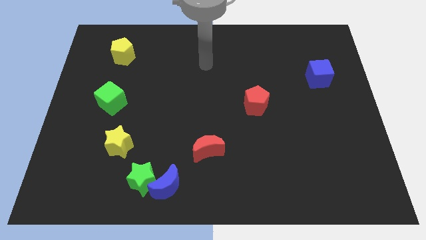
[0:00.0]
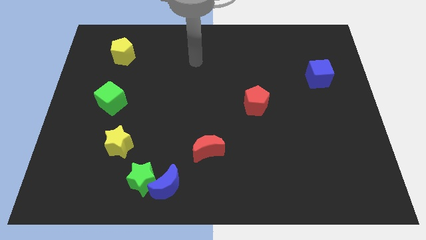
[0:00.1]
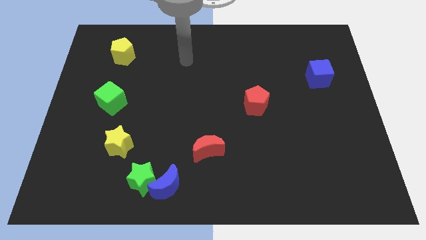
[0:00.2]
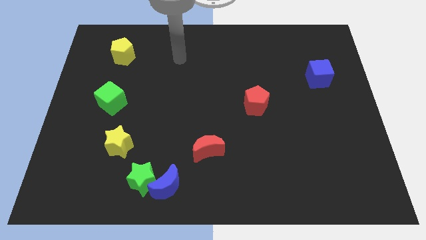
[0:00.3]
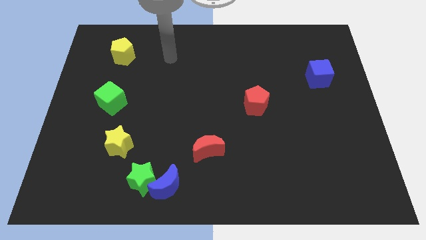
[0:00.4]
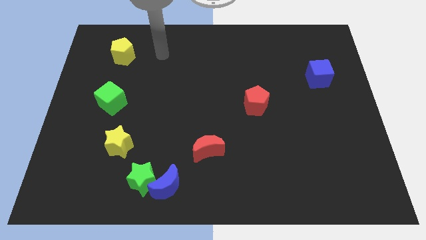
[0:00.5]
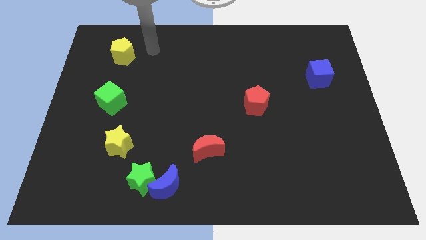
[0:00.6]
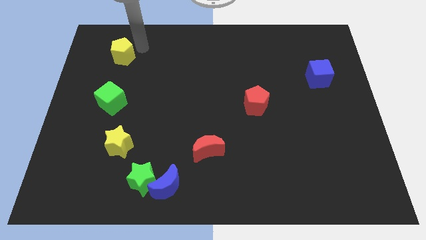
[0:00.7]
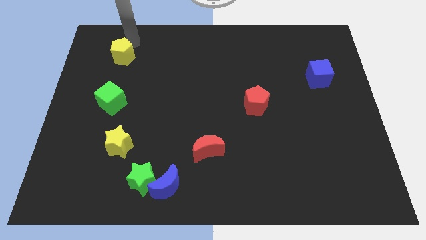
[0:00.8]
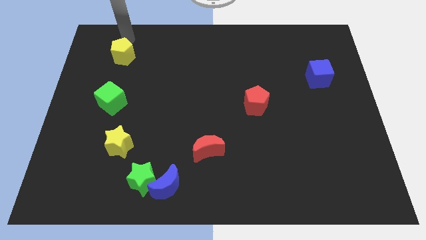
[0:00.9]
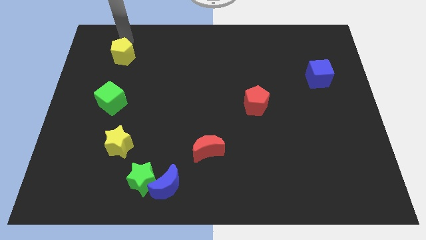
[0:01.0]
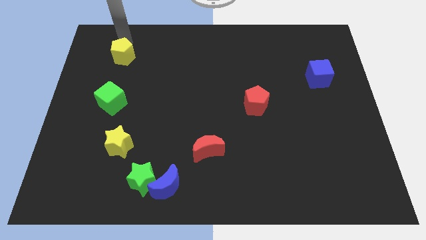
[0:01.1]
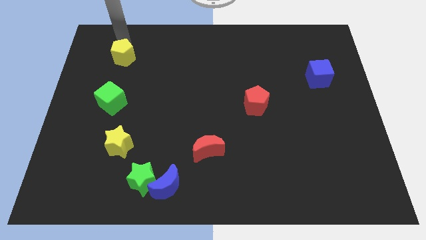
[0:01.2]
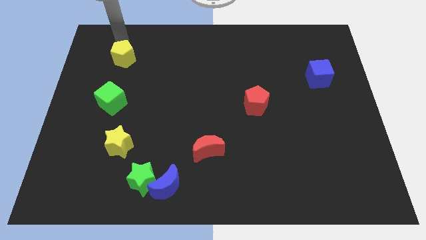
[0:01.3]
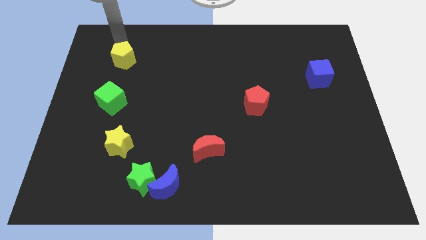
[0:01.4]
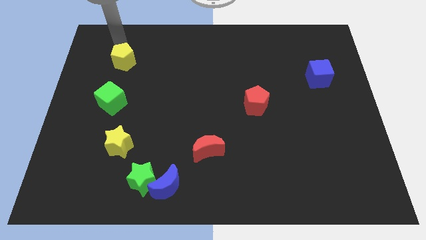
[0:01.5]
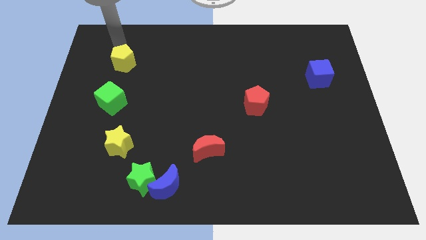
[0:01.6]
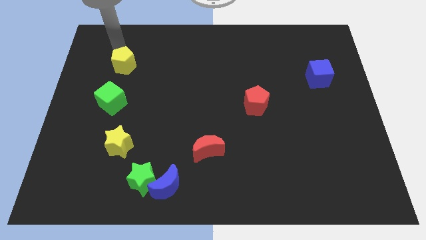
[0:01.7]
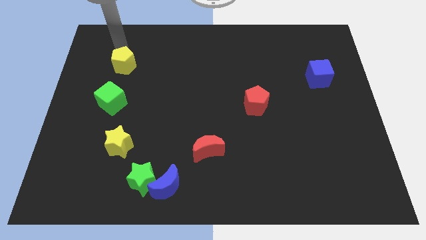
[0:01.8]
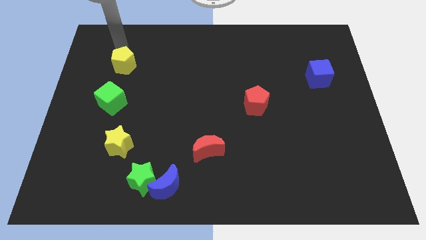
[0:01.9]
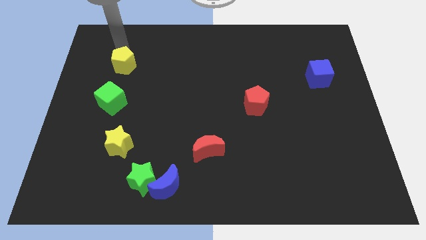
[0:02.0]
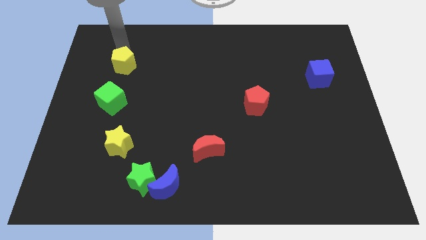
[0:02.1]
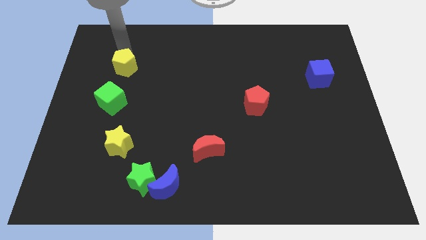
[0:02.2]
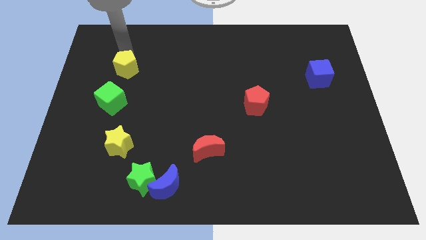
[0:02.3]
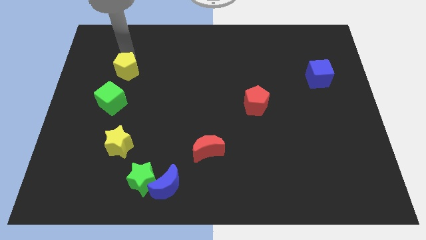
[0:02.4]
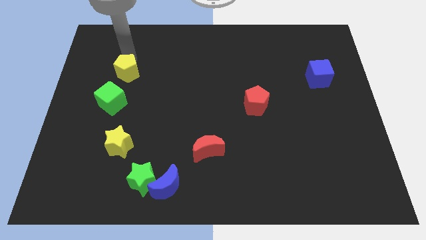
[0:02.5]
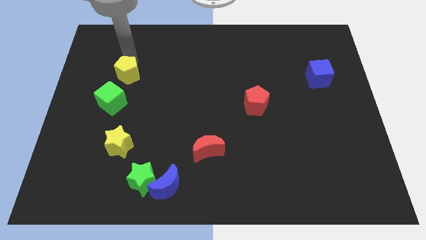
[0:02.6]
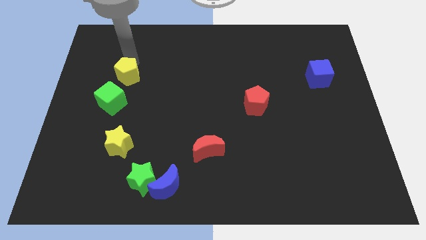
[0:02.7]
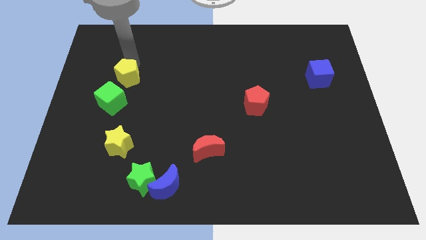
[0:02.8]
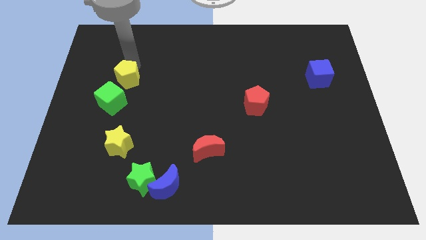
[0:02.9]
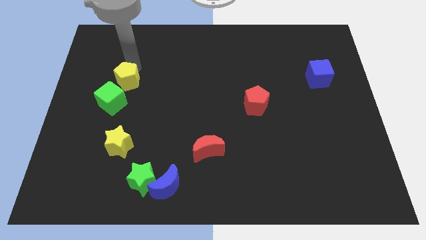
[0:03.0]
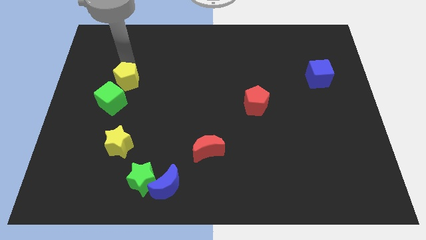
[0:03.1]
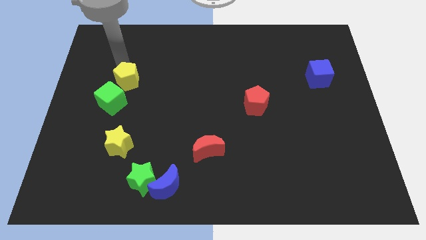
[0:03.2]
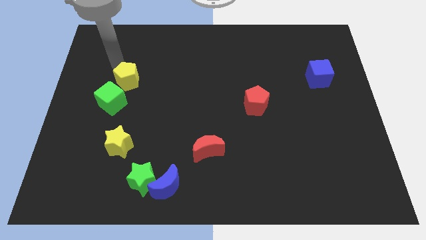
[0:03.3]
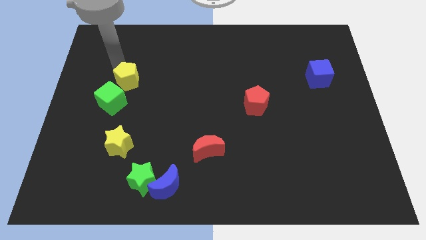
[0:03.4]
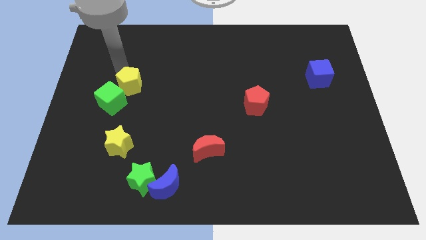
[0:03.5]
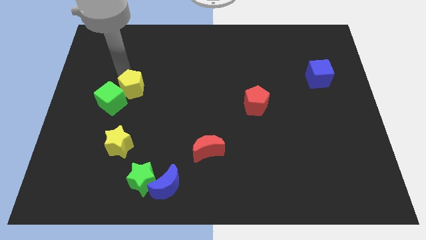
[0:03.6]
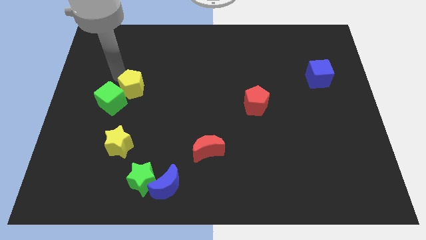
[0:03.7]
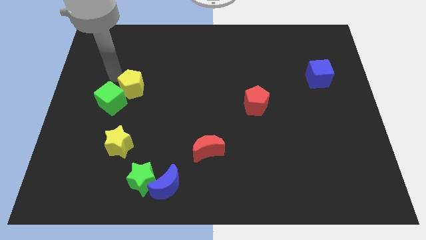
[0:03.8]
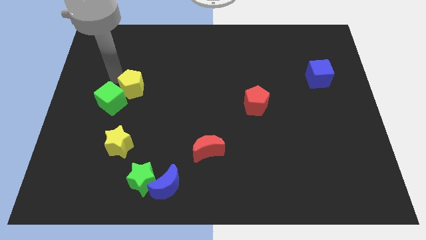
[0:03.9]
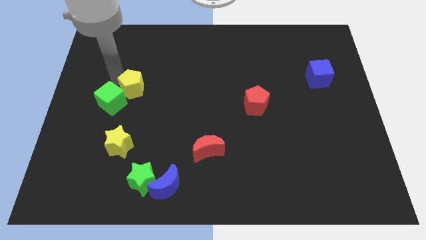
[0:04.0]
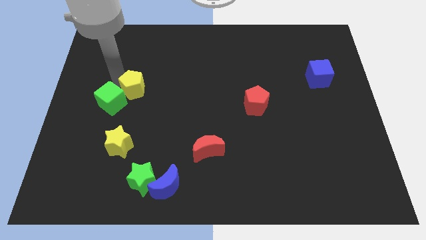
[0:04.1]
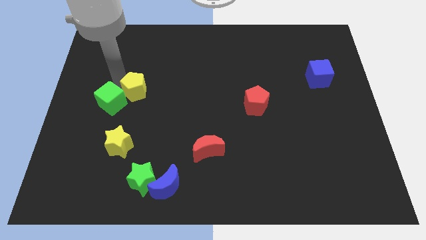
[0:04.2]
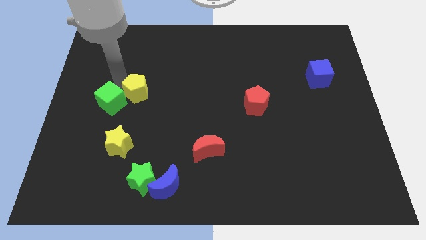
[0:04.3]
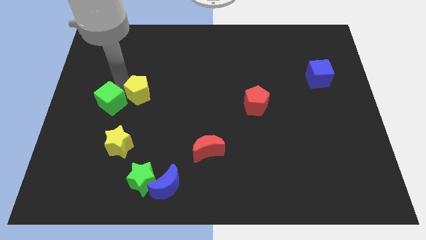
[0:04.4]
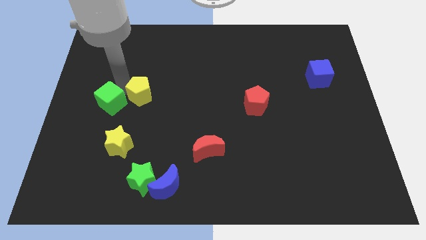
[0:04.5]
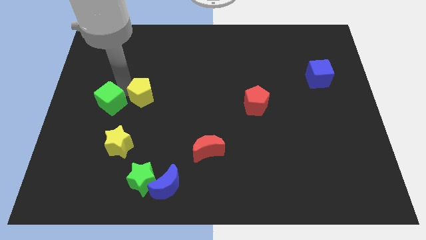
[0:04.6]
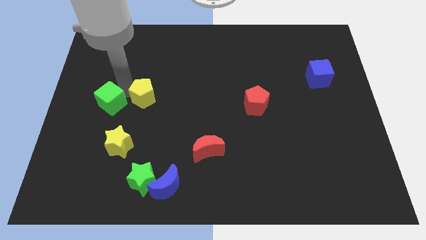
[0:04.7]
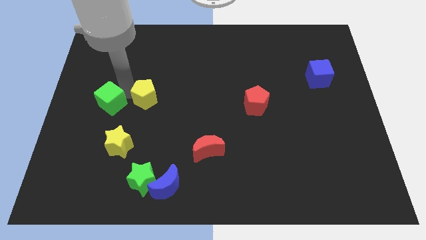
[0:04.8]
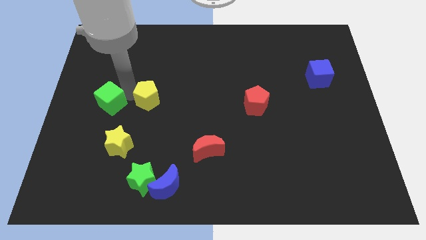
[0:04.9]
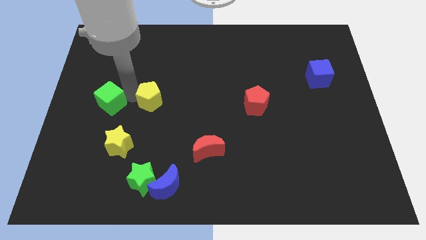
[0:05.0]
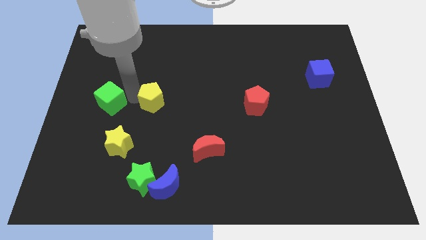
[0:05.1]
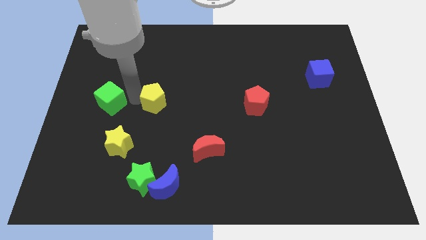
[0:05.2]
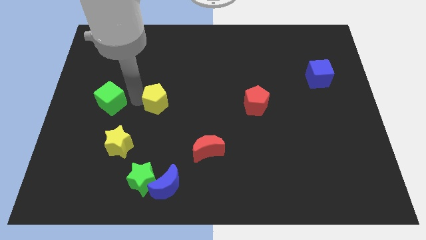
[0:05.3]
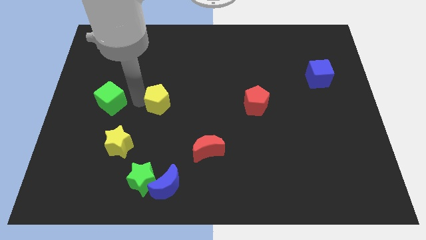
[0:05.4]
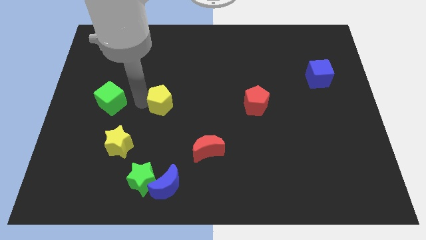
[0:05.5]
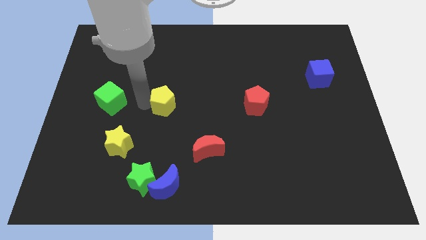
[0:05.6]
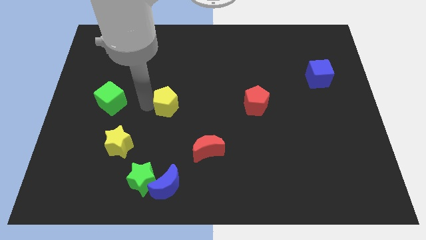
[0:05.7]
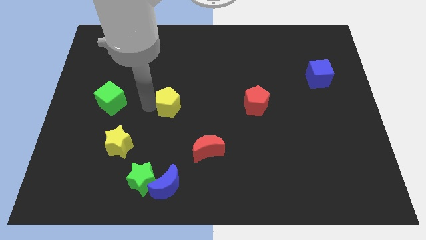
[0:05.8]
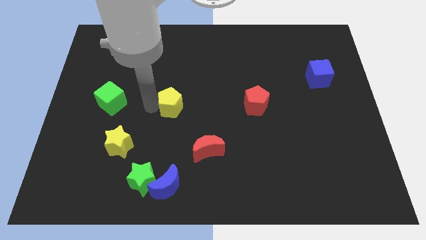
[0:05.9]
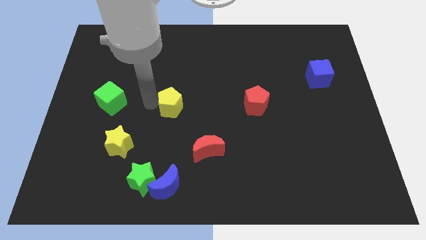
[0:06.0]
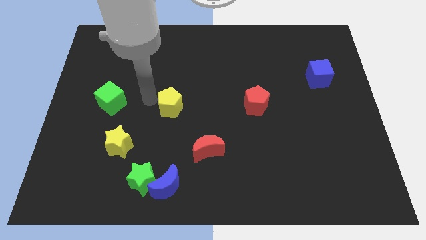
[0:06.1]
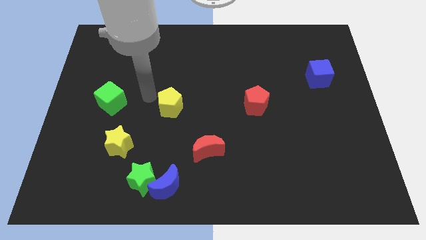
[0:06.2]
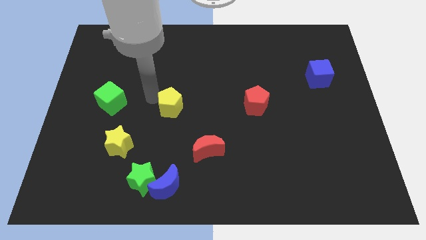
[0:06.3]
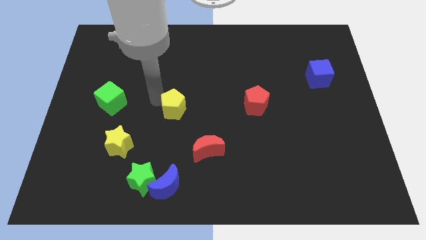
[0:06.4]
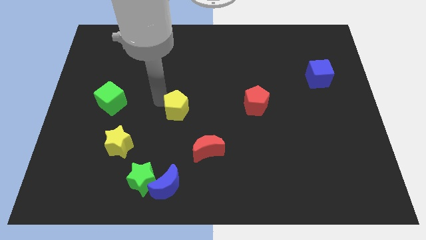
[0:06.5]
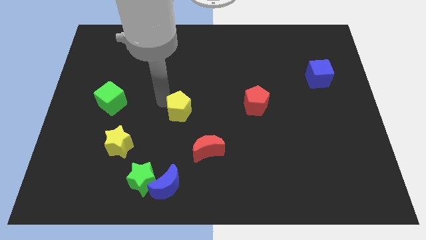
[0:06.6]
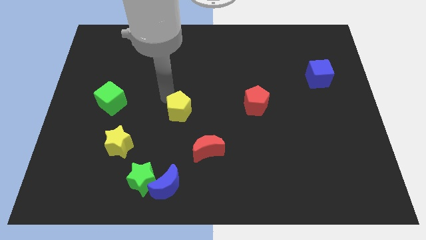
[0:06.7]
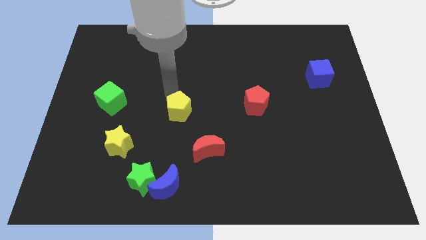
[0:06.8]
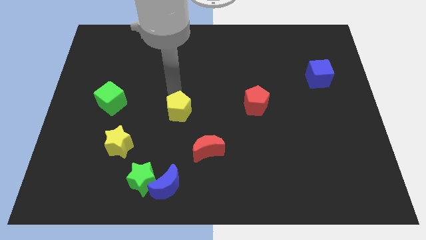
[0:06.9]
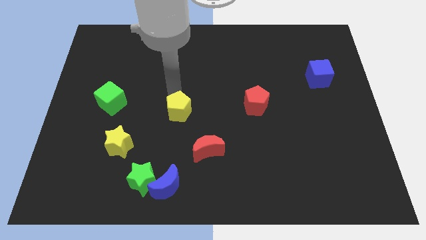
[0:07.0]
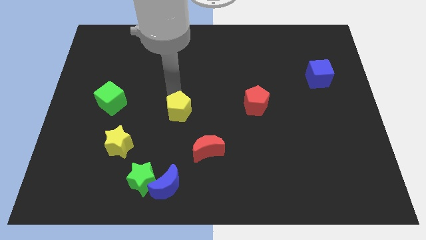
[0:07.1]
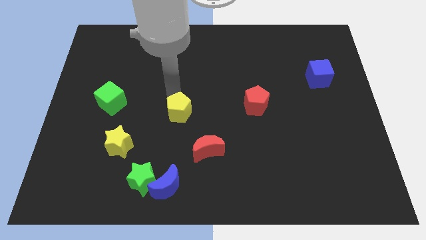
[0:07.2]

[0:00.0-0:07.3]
move the yellow pentagon to the top left side of the red moon
